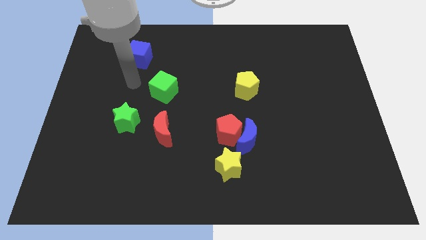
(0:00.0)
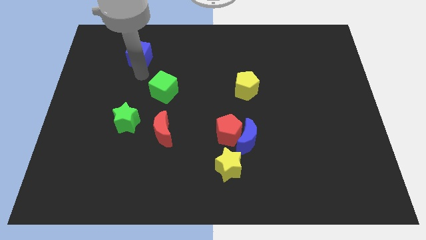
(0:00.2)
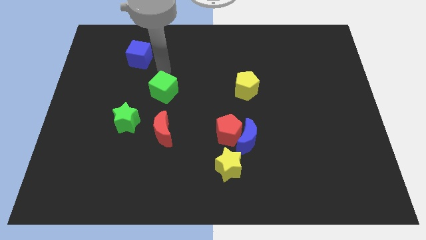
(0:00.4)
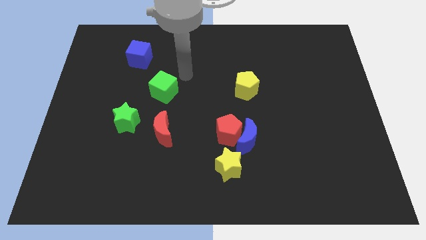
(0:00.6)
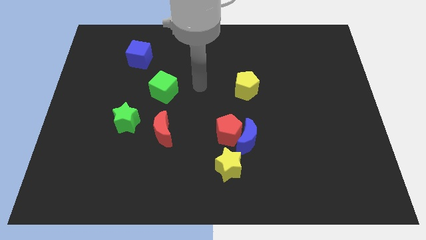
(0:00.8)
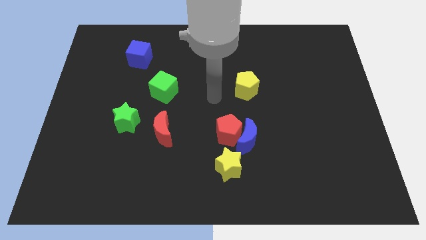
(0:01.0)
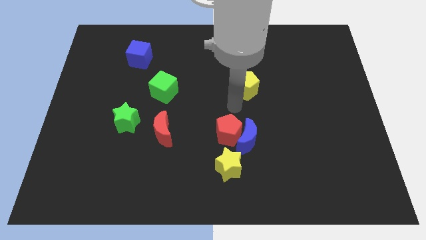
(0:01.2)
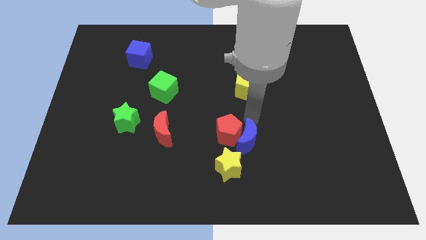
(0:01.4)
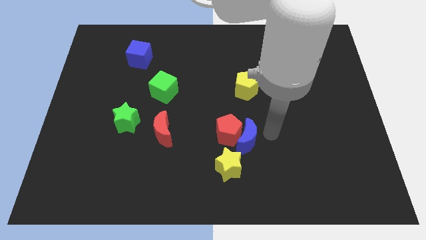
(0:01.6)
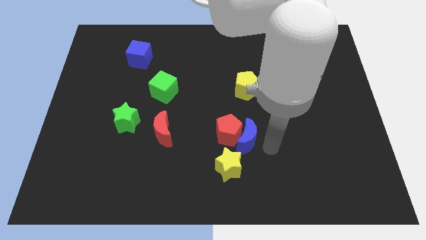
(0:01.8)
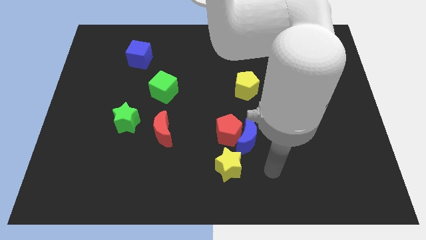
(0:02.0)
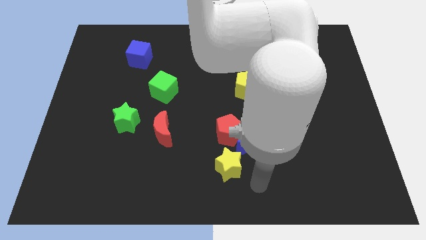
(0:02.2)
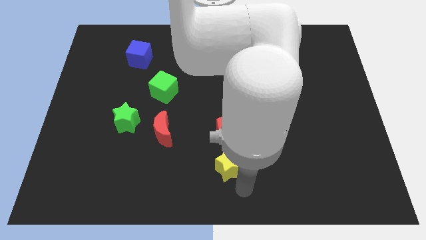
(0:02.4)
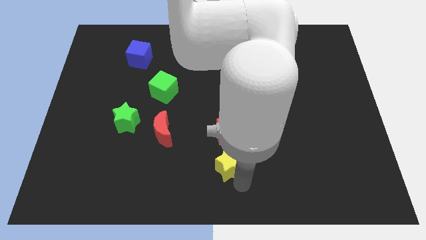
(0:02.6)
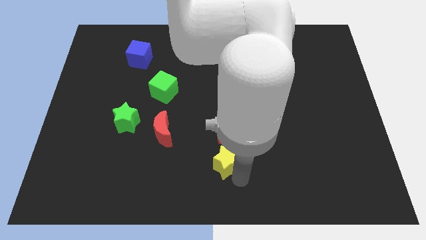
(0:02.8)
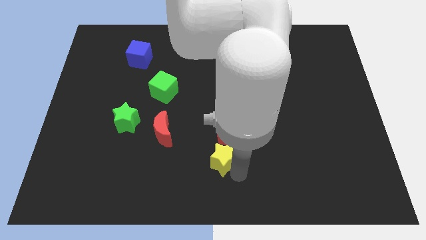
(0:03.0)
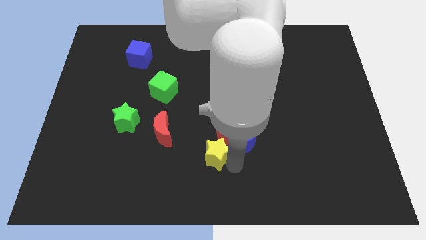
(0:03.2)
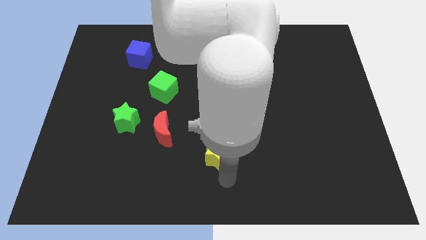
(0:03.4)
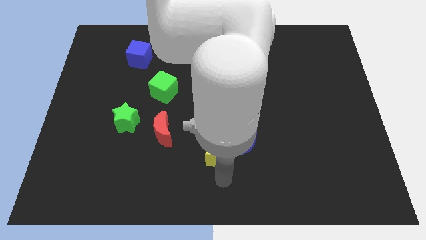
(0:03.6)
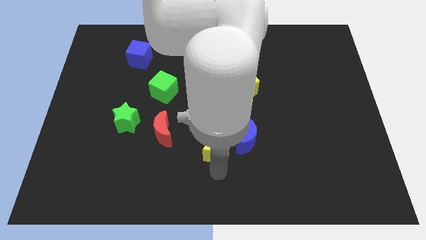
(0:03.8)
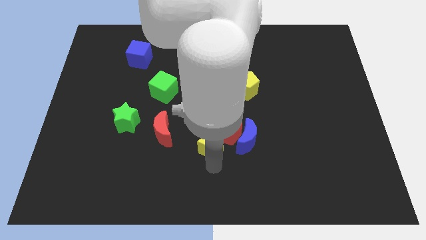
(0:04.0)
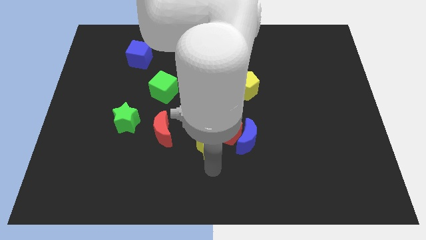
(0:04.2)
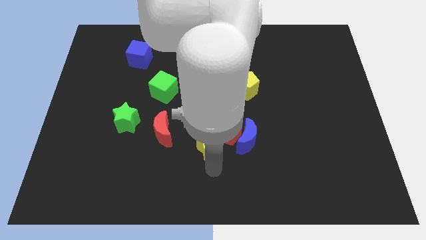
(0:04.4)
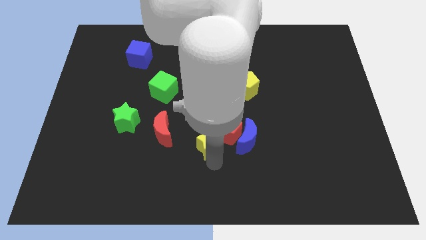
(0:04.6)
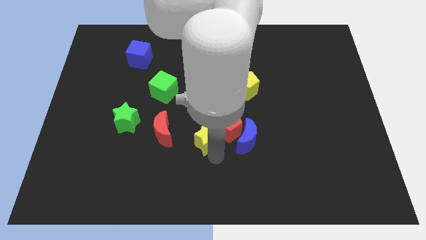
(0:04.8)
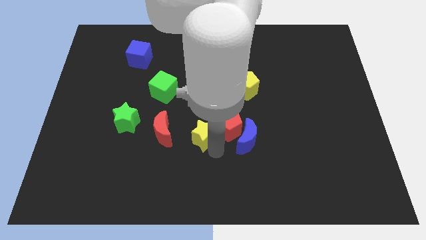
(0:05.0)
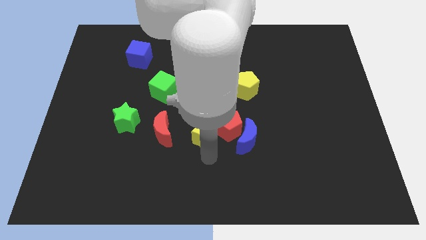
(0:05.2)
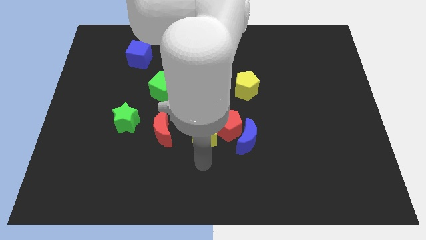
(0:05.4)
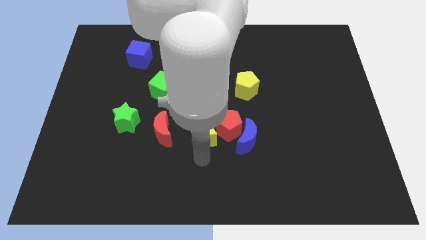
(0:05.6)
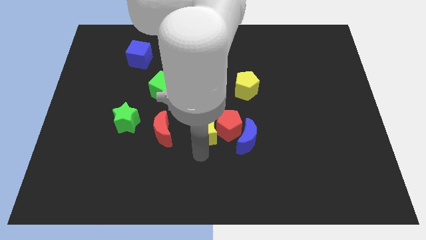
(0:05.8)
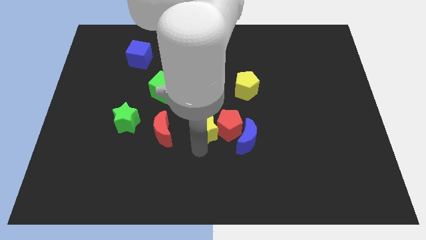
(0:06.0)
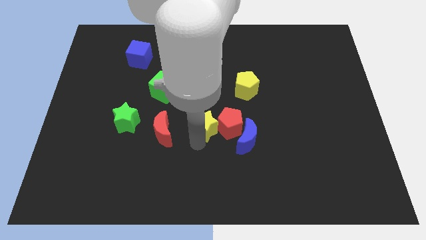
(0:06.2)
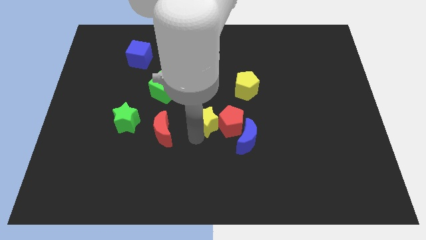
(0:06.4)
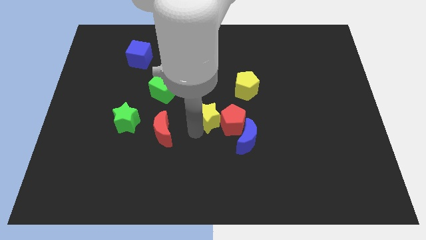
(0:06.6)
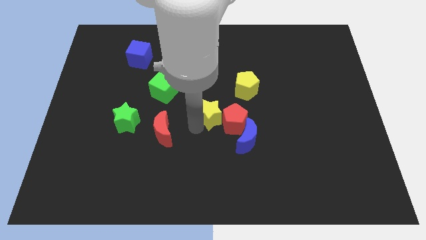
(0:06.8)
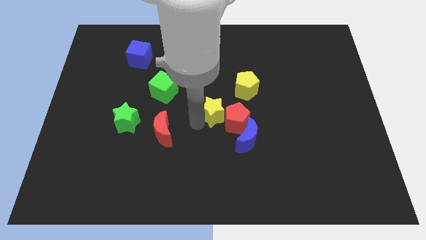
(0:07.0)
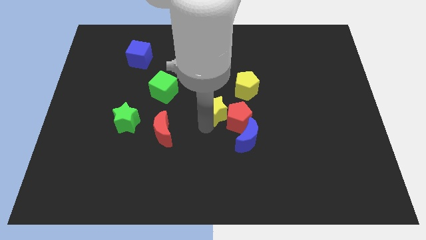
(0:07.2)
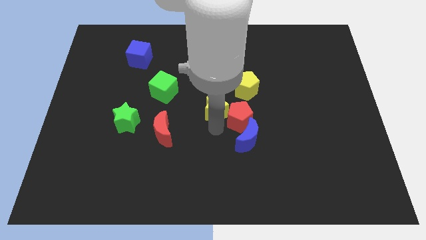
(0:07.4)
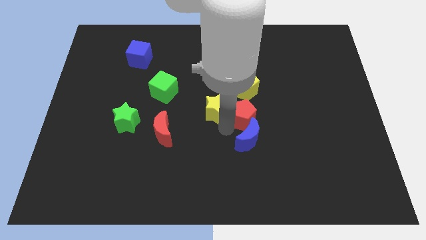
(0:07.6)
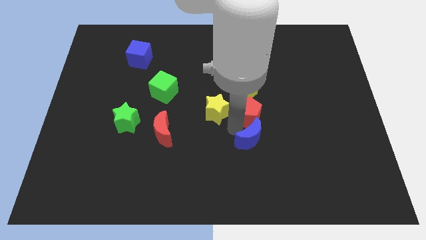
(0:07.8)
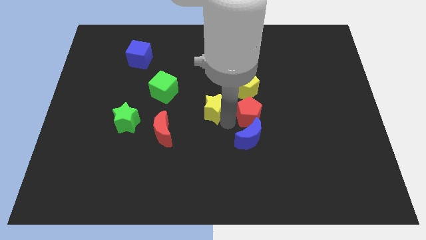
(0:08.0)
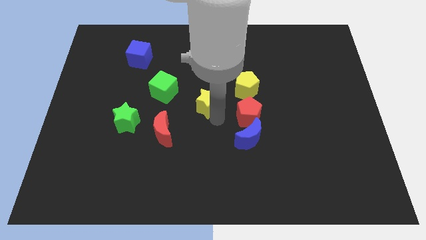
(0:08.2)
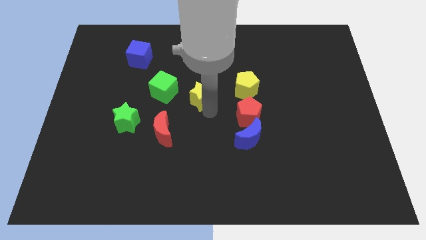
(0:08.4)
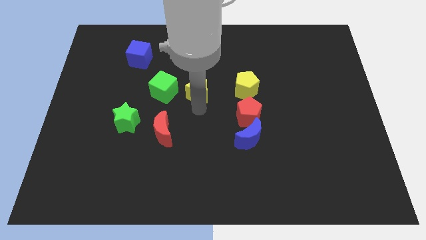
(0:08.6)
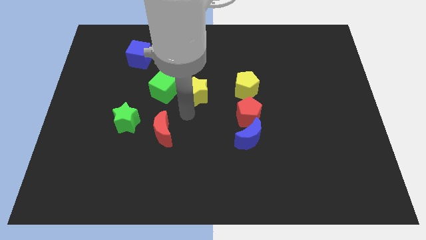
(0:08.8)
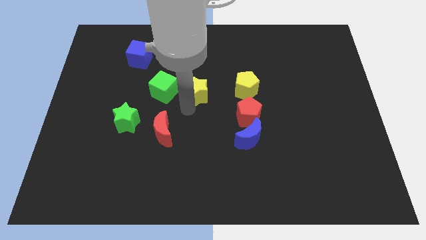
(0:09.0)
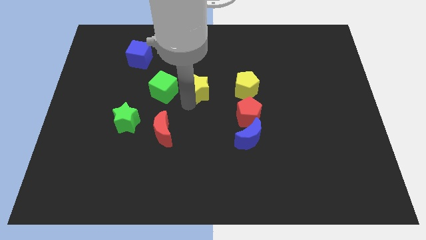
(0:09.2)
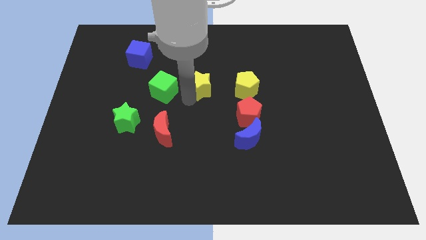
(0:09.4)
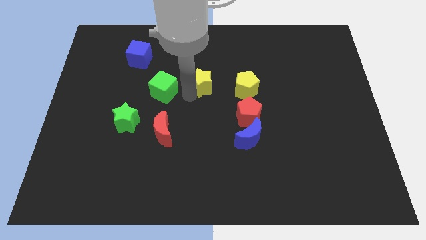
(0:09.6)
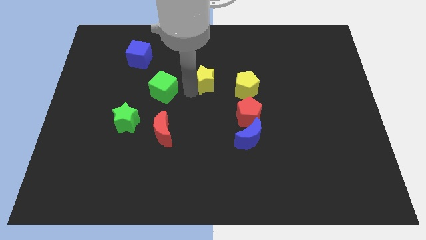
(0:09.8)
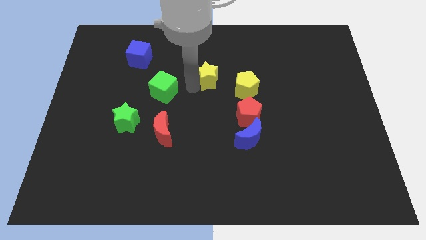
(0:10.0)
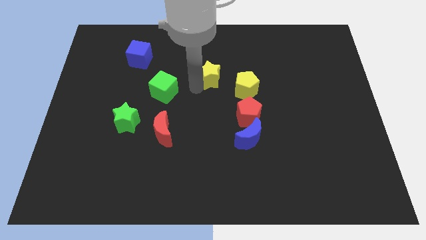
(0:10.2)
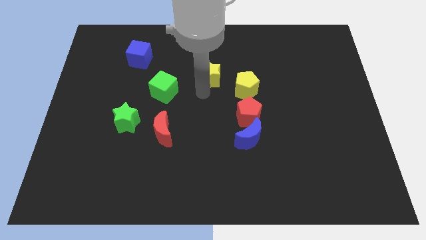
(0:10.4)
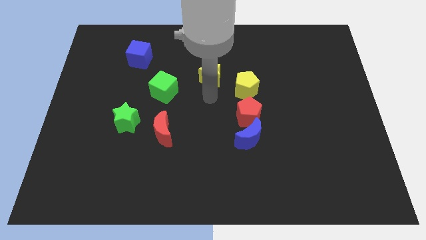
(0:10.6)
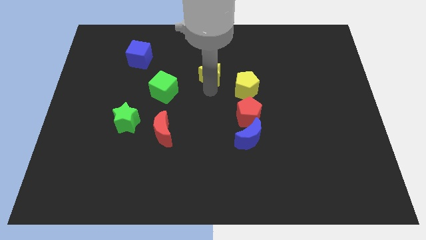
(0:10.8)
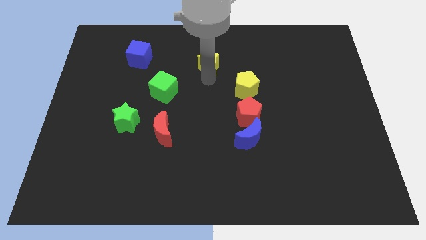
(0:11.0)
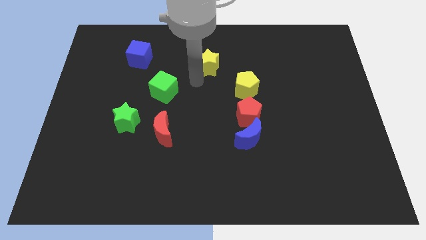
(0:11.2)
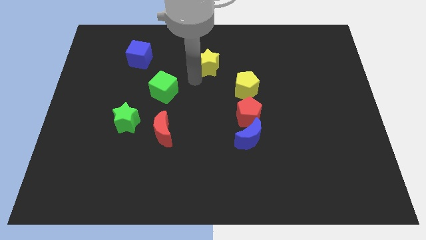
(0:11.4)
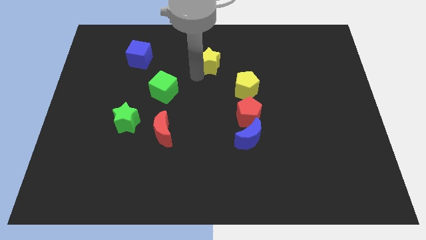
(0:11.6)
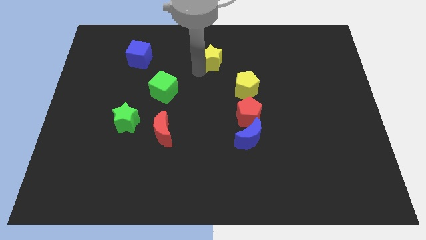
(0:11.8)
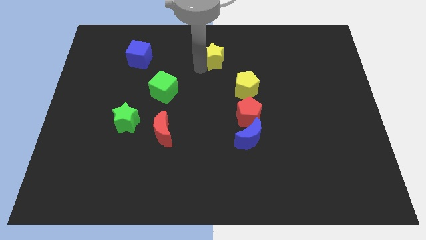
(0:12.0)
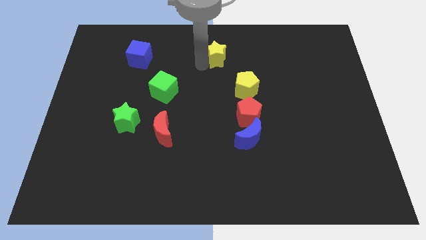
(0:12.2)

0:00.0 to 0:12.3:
move the yellow star to the top side
